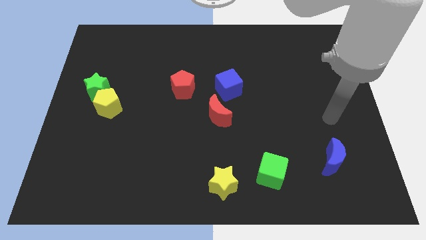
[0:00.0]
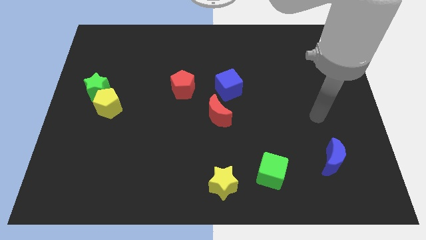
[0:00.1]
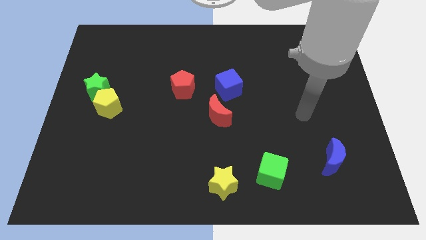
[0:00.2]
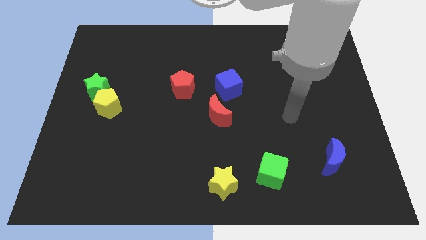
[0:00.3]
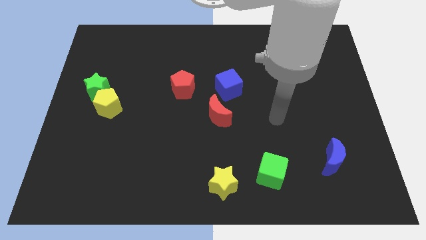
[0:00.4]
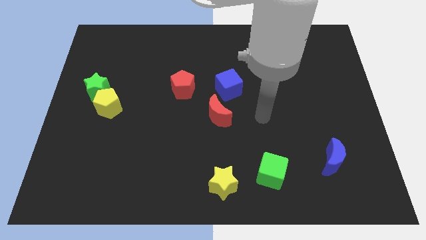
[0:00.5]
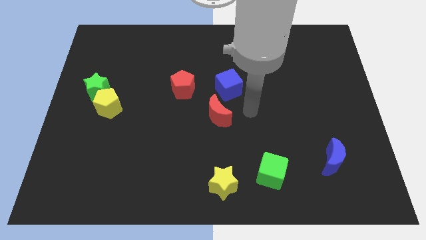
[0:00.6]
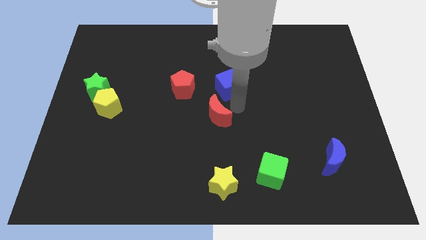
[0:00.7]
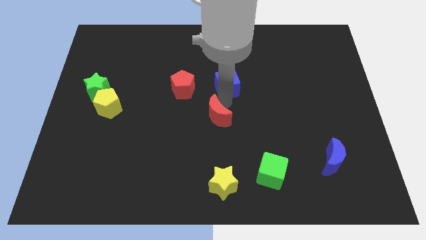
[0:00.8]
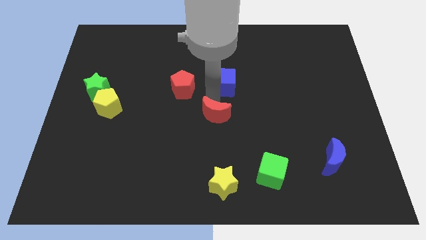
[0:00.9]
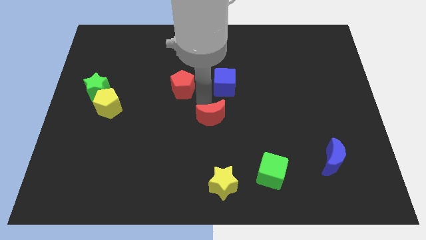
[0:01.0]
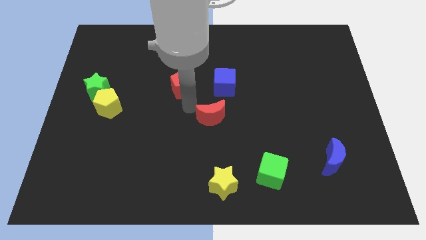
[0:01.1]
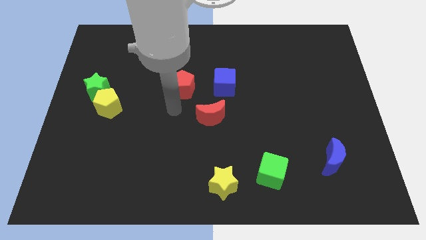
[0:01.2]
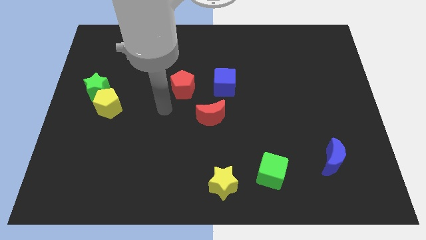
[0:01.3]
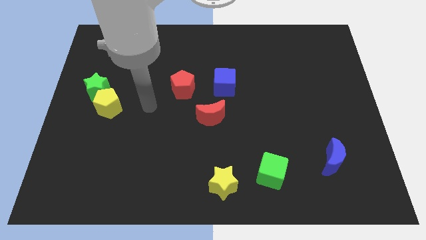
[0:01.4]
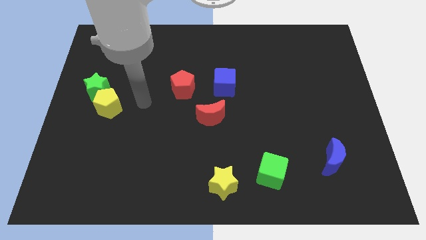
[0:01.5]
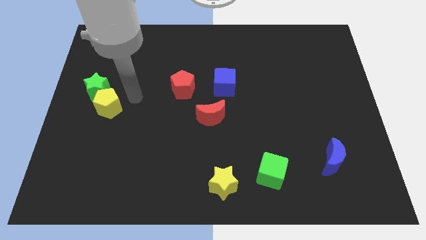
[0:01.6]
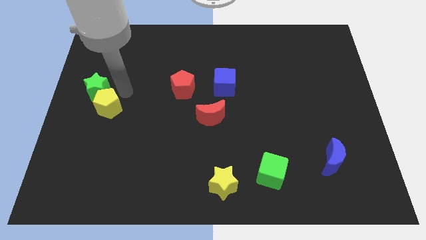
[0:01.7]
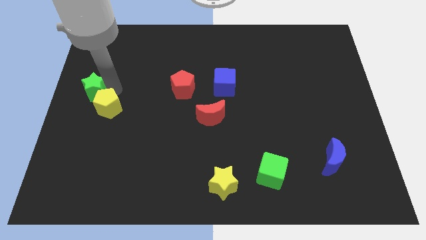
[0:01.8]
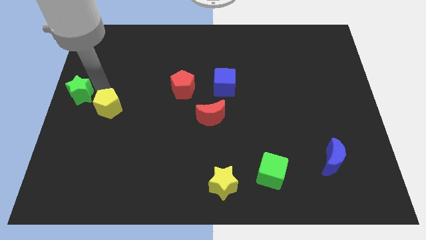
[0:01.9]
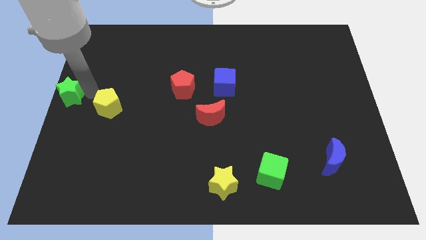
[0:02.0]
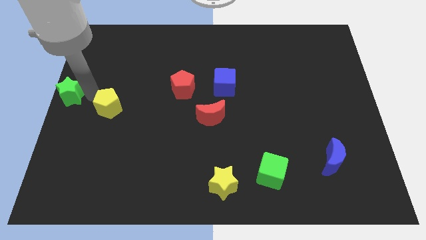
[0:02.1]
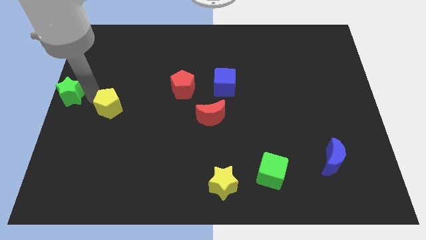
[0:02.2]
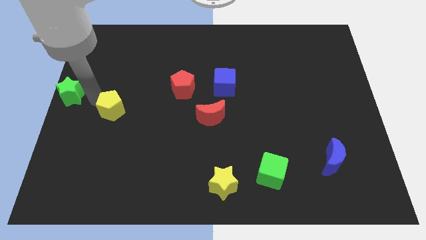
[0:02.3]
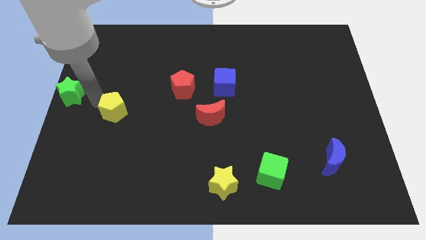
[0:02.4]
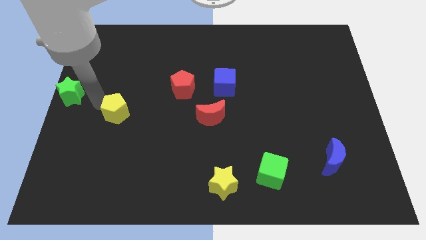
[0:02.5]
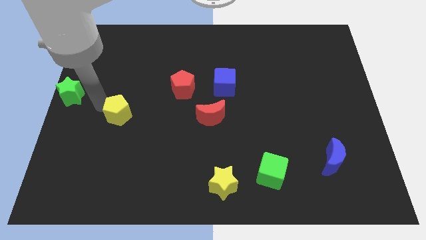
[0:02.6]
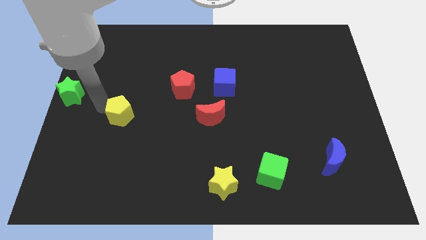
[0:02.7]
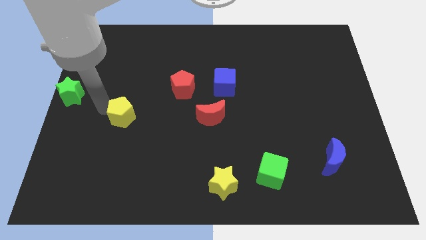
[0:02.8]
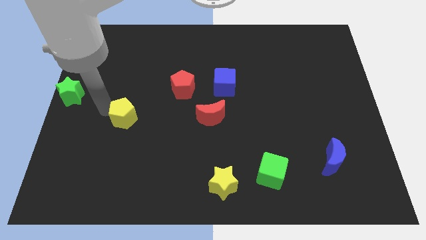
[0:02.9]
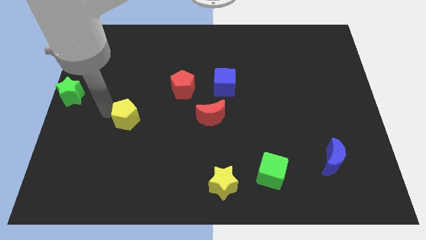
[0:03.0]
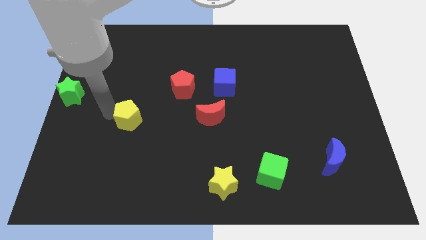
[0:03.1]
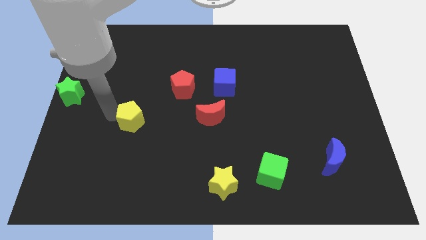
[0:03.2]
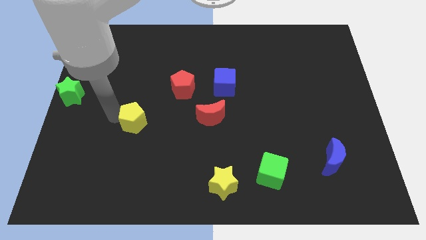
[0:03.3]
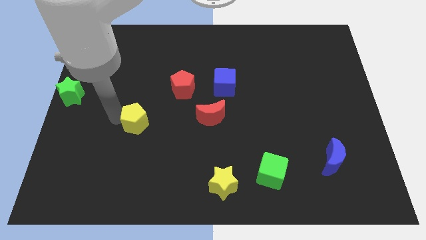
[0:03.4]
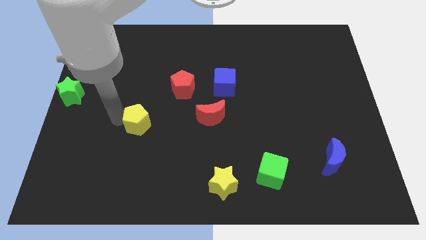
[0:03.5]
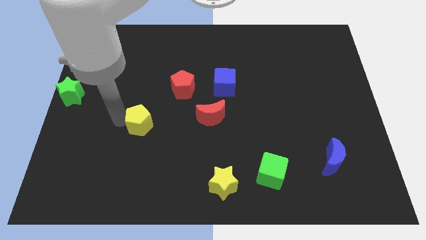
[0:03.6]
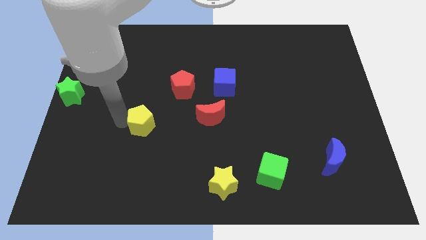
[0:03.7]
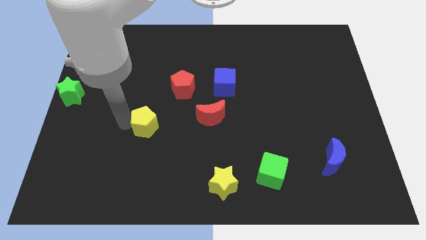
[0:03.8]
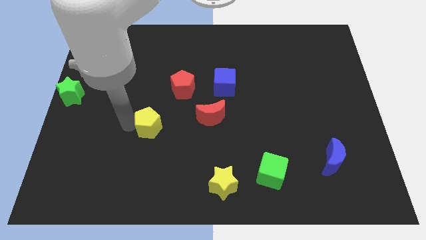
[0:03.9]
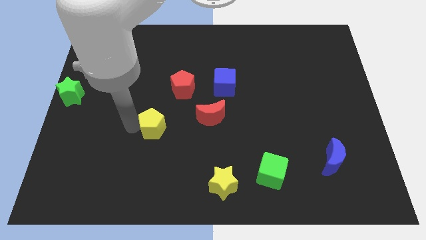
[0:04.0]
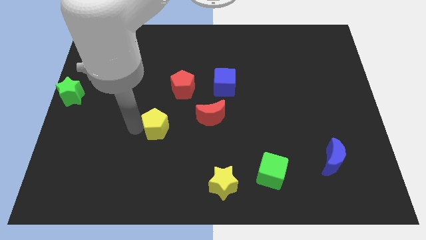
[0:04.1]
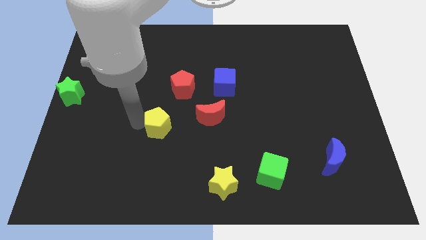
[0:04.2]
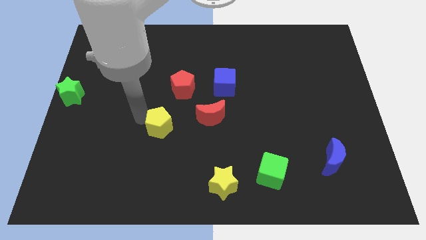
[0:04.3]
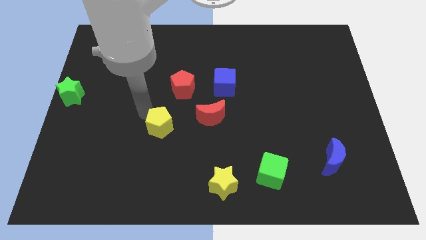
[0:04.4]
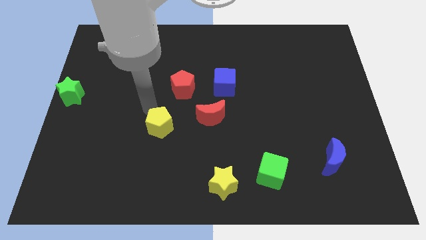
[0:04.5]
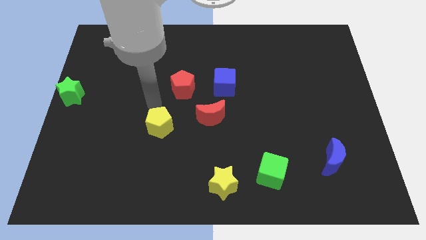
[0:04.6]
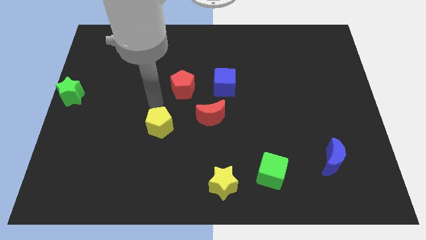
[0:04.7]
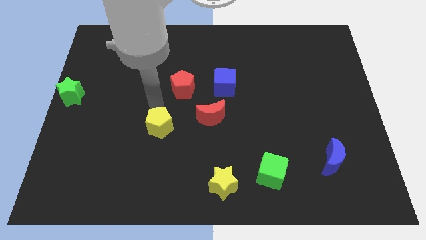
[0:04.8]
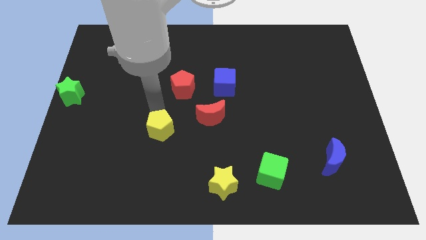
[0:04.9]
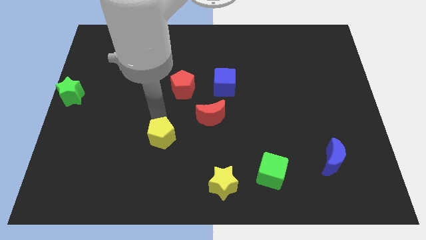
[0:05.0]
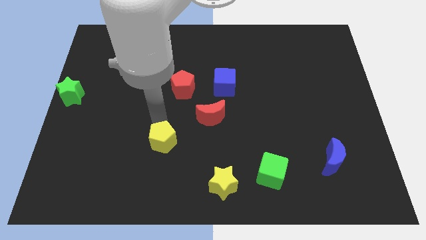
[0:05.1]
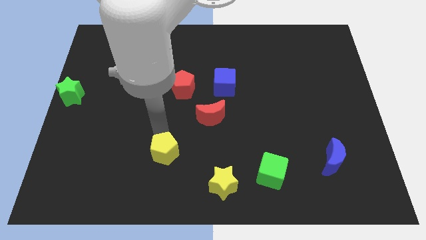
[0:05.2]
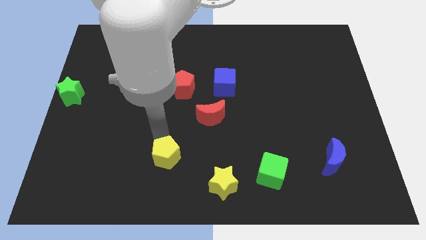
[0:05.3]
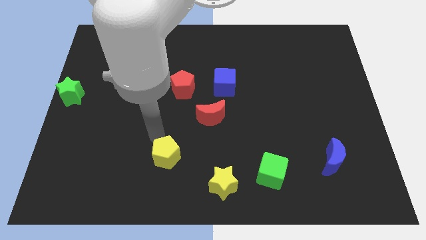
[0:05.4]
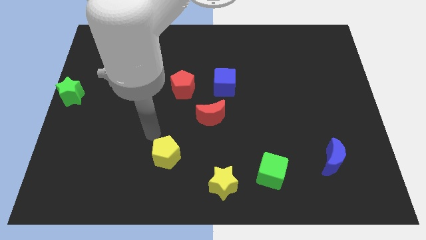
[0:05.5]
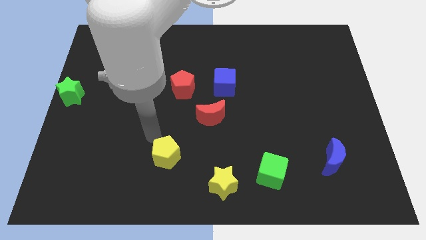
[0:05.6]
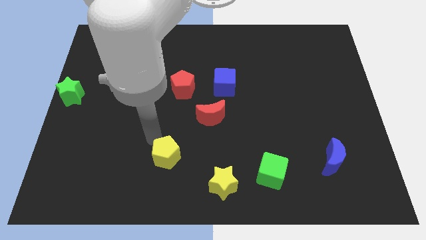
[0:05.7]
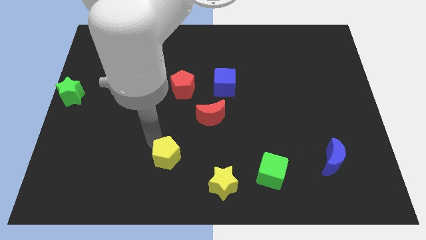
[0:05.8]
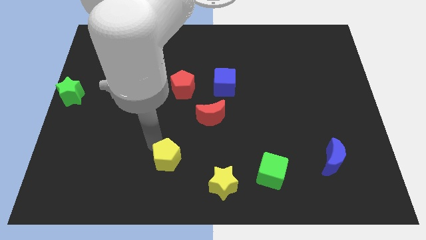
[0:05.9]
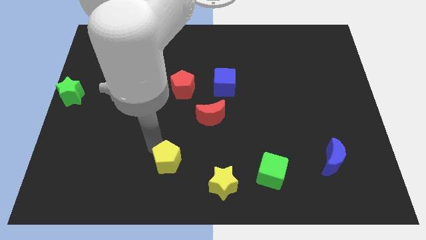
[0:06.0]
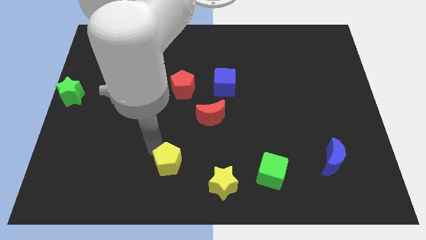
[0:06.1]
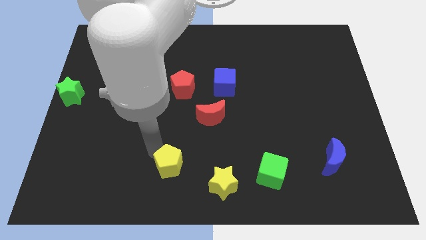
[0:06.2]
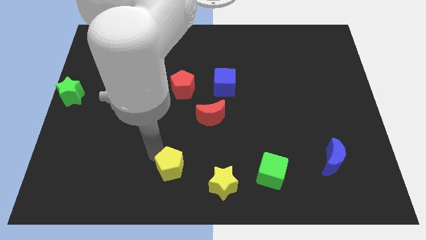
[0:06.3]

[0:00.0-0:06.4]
push the yellow pentagon to the bottom side
